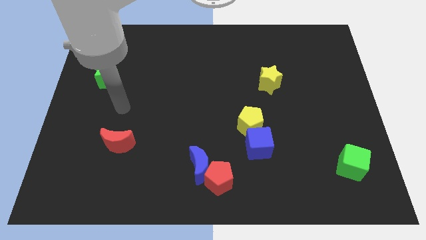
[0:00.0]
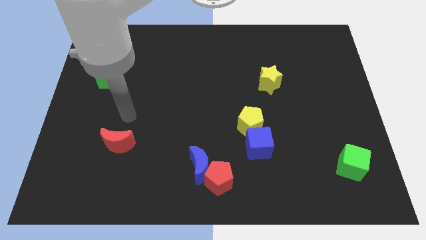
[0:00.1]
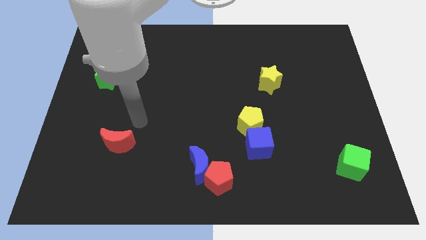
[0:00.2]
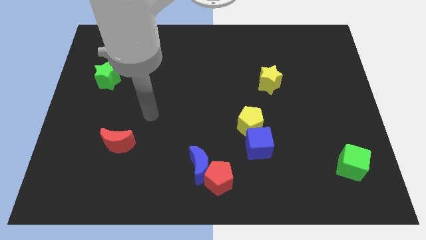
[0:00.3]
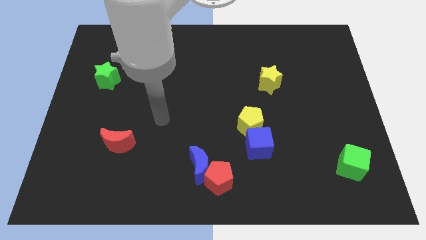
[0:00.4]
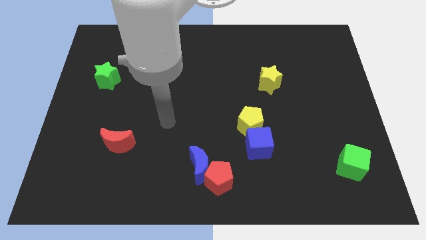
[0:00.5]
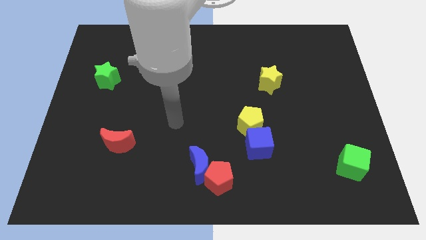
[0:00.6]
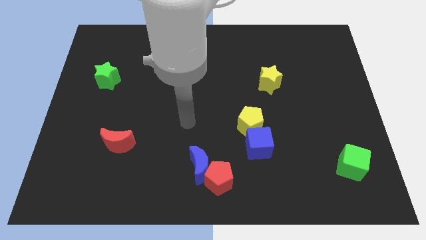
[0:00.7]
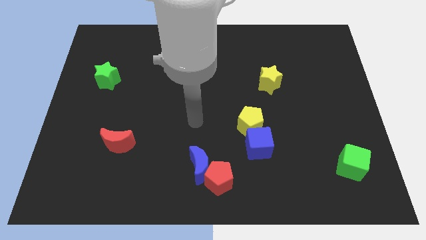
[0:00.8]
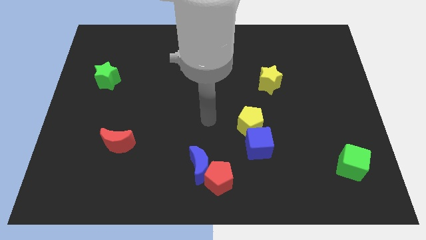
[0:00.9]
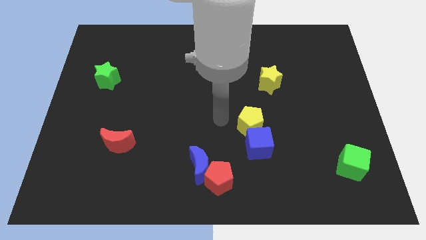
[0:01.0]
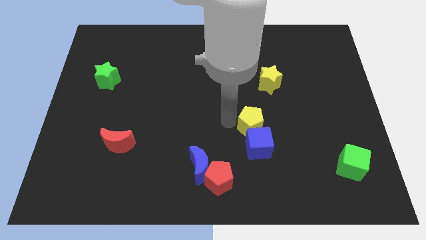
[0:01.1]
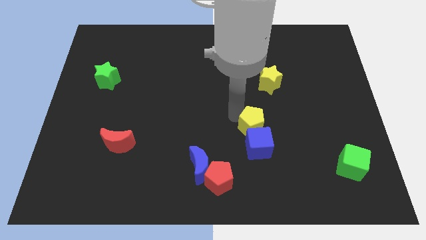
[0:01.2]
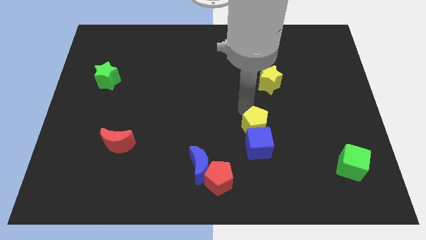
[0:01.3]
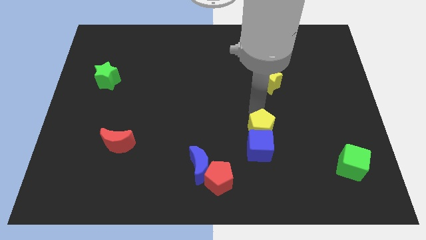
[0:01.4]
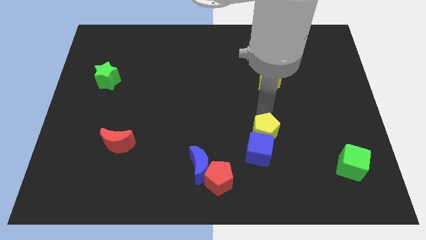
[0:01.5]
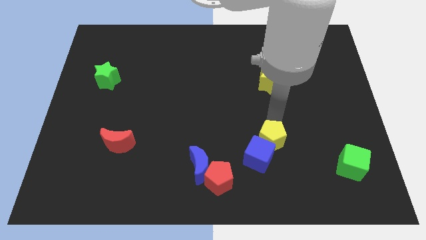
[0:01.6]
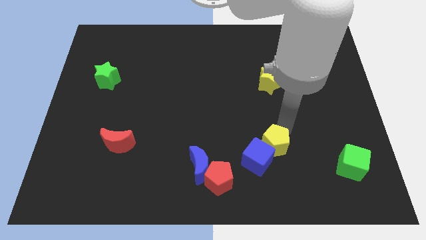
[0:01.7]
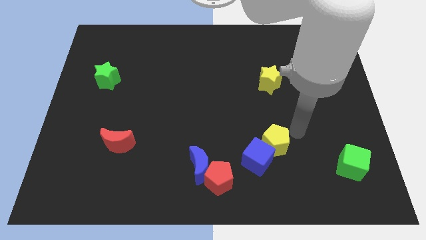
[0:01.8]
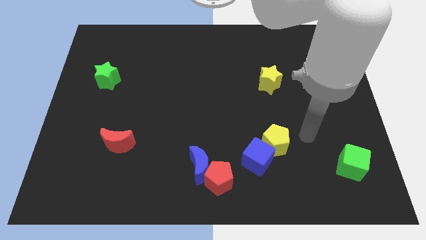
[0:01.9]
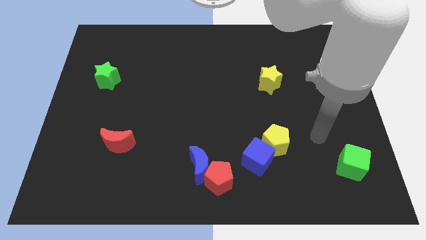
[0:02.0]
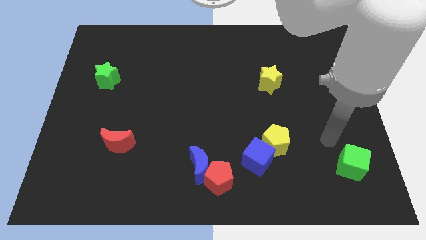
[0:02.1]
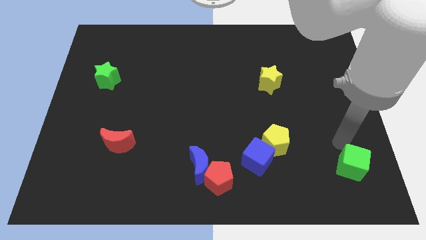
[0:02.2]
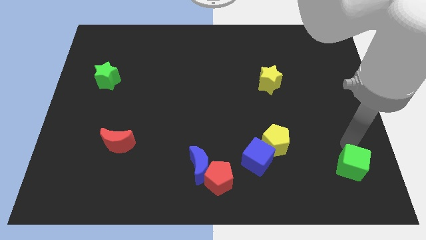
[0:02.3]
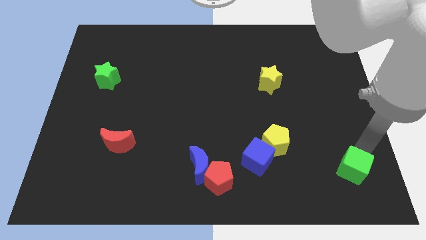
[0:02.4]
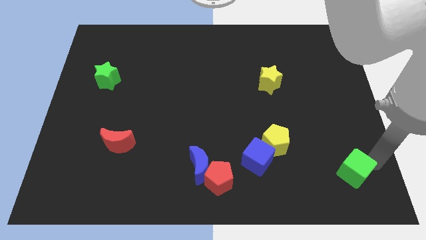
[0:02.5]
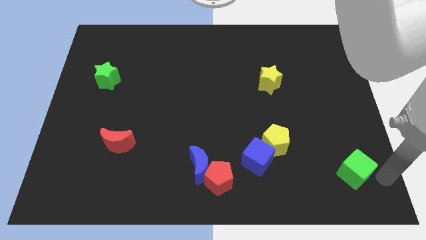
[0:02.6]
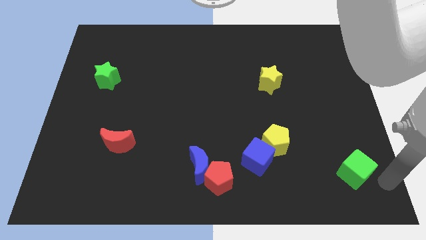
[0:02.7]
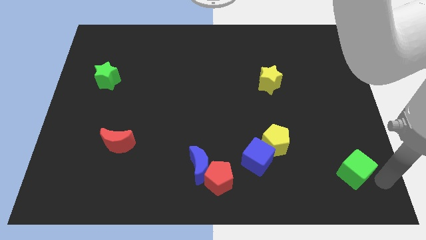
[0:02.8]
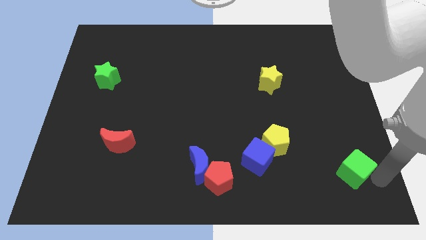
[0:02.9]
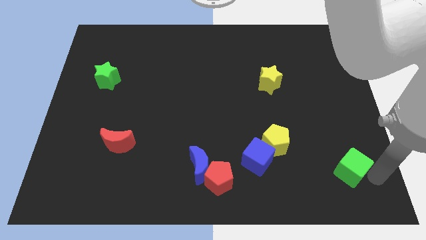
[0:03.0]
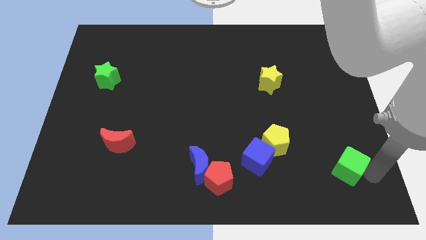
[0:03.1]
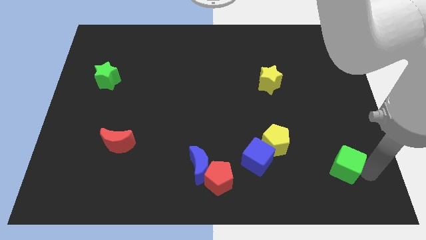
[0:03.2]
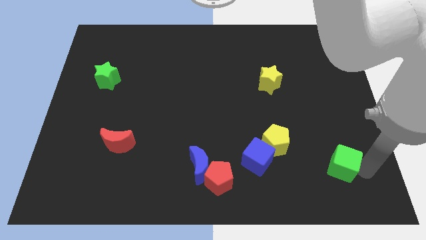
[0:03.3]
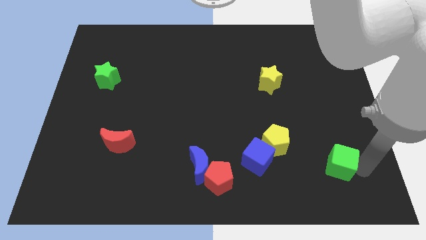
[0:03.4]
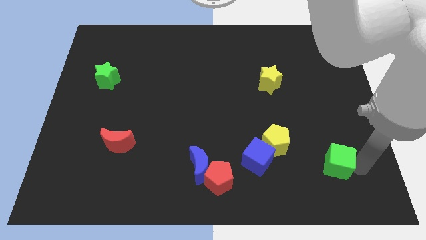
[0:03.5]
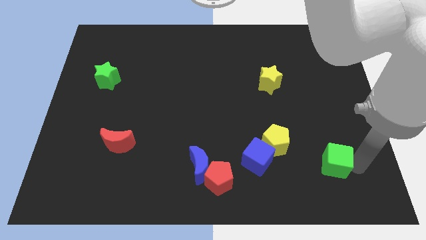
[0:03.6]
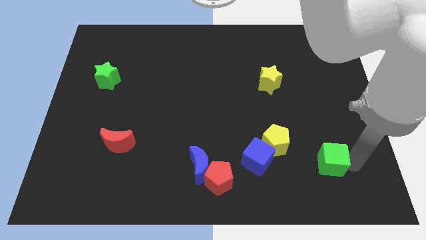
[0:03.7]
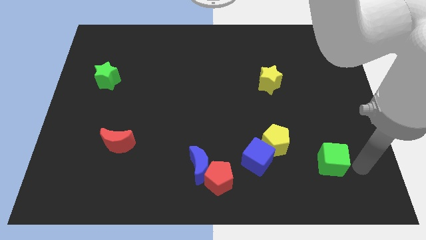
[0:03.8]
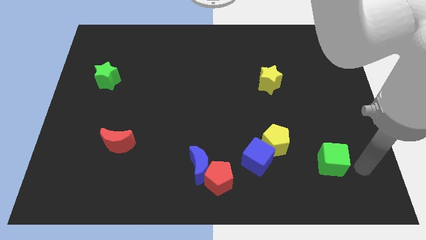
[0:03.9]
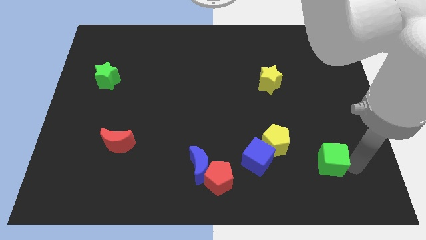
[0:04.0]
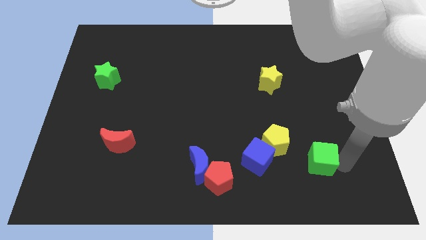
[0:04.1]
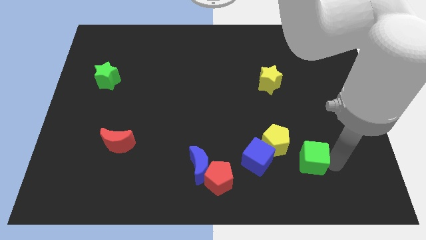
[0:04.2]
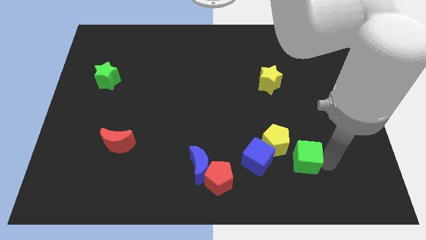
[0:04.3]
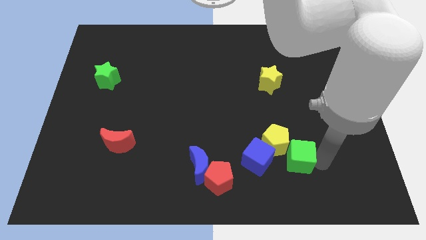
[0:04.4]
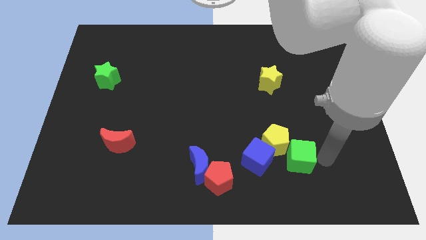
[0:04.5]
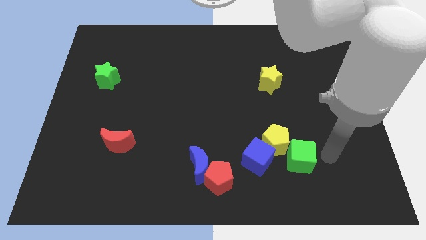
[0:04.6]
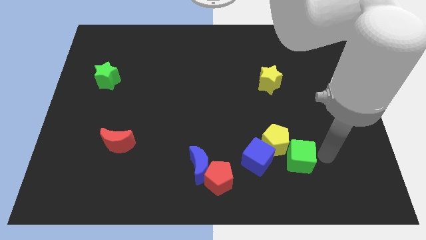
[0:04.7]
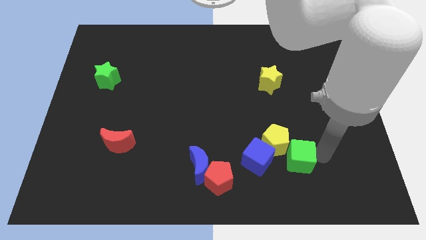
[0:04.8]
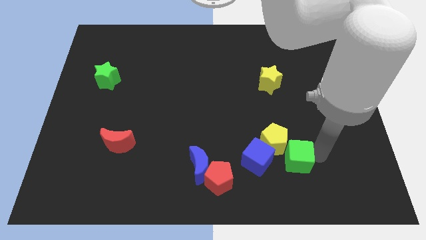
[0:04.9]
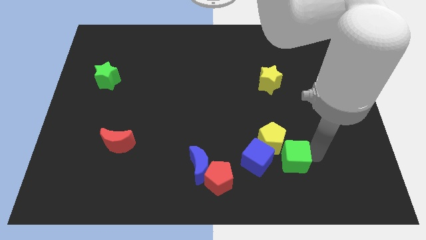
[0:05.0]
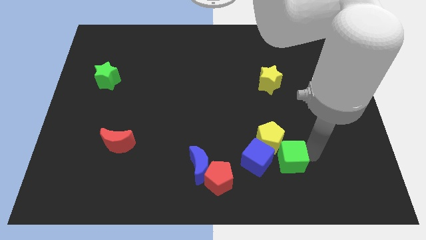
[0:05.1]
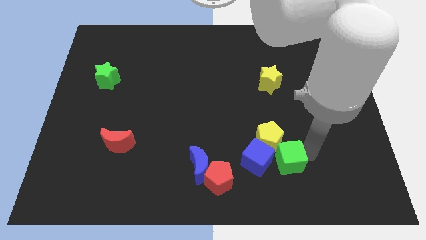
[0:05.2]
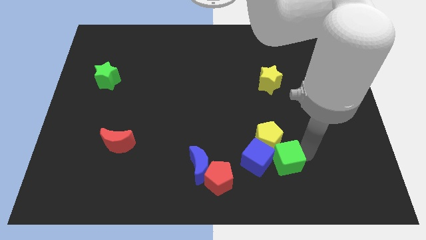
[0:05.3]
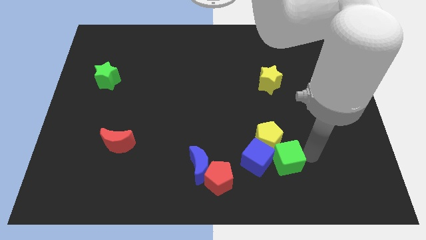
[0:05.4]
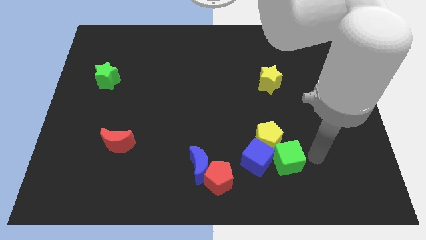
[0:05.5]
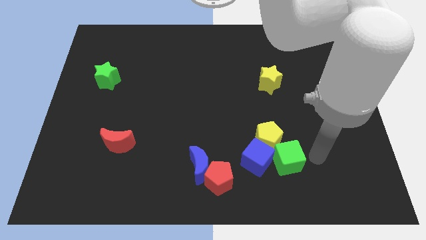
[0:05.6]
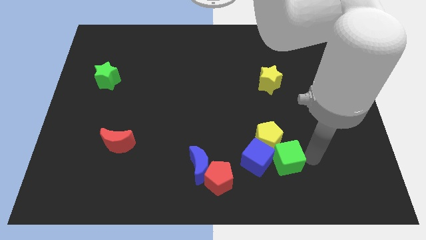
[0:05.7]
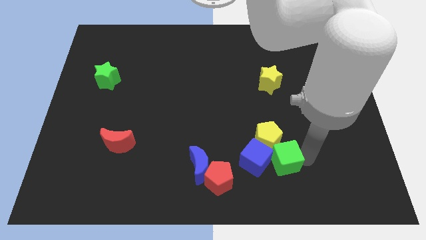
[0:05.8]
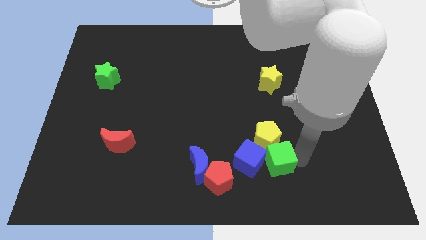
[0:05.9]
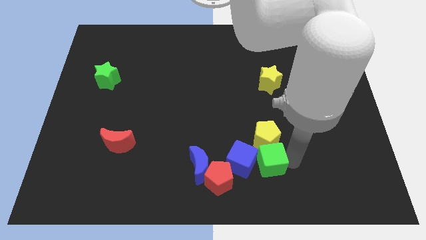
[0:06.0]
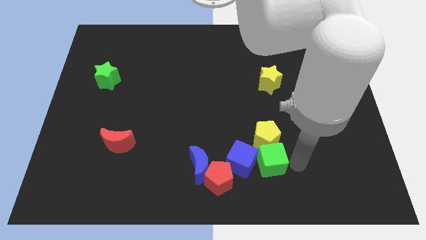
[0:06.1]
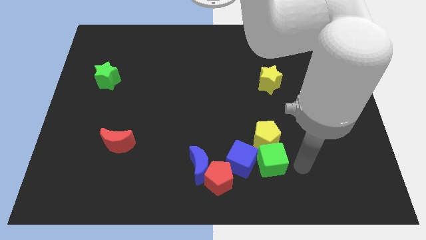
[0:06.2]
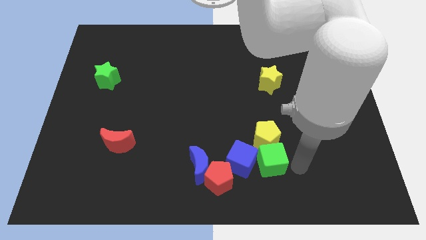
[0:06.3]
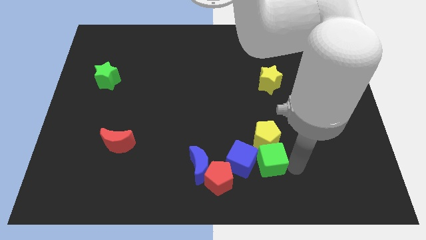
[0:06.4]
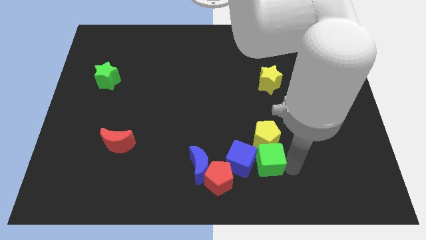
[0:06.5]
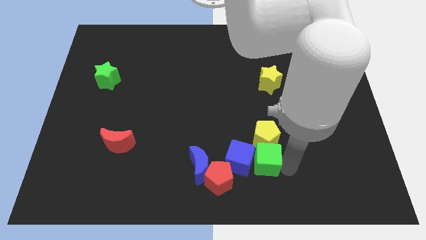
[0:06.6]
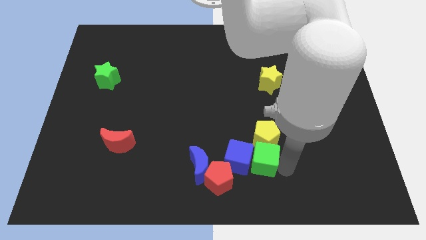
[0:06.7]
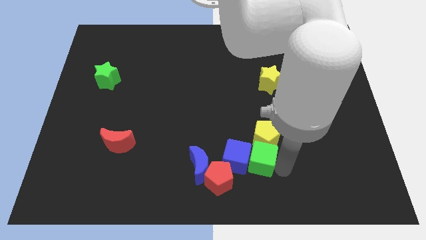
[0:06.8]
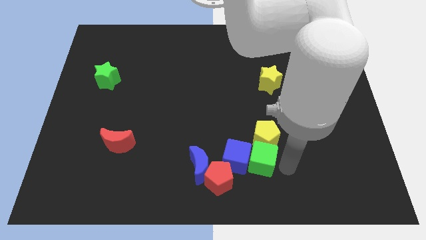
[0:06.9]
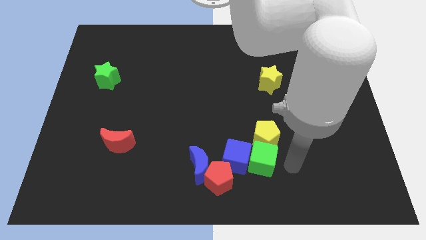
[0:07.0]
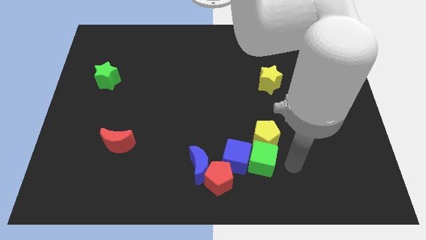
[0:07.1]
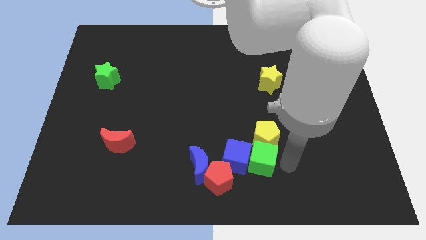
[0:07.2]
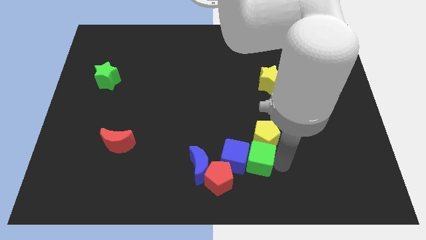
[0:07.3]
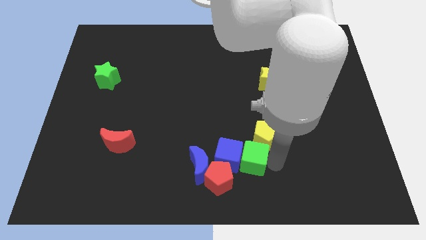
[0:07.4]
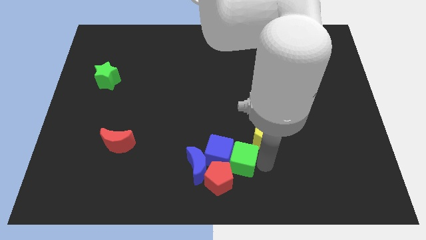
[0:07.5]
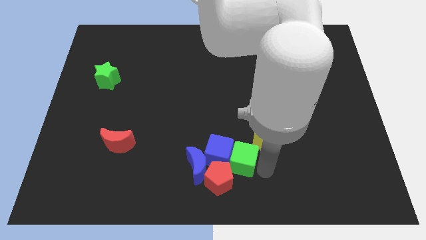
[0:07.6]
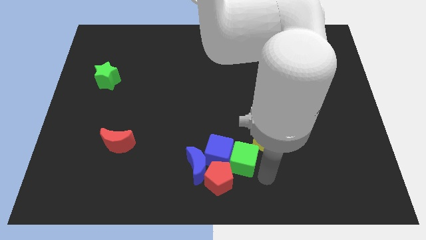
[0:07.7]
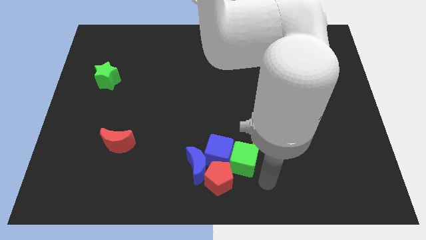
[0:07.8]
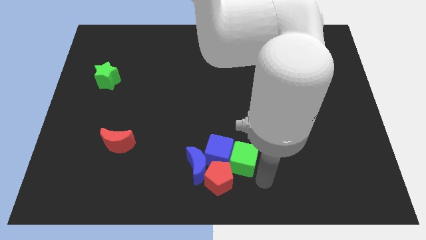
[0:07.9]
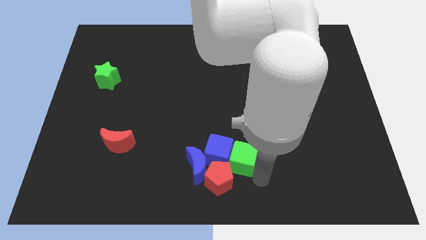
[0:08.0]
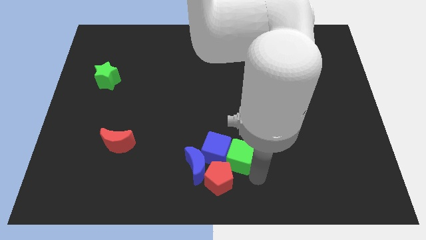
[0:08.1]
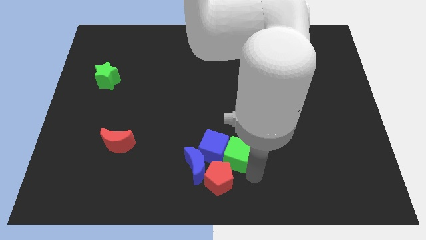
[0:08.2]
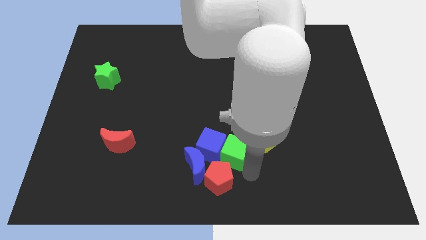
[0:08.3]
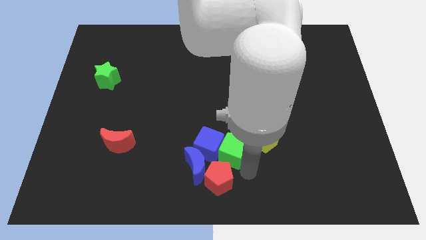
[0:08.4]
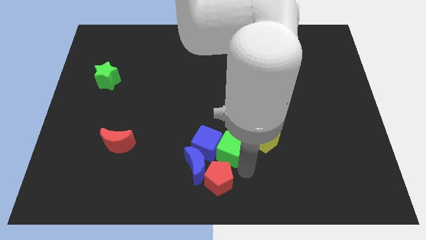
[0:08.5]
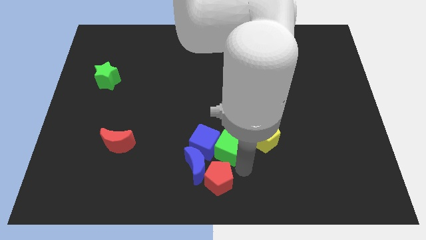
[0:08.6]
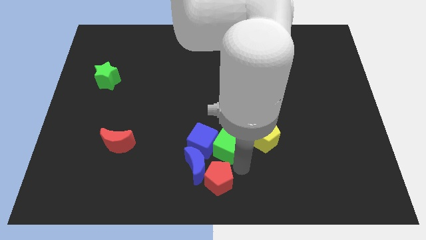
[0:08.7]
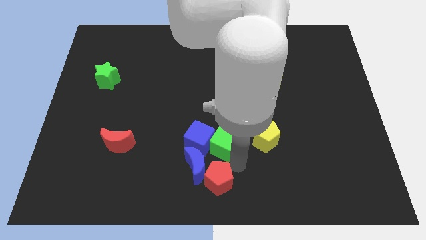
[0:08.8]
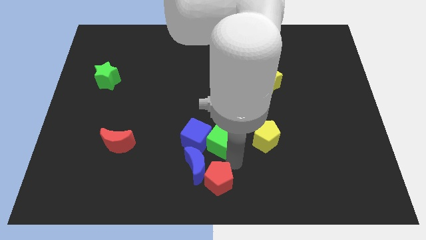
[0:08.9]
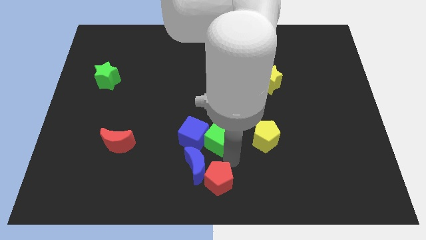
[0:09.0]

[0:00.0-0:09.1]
push the green cube to the top of the blue moon
